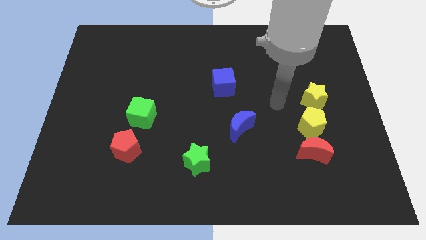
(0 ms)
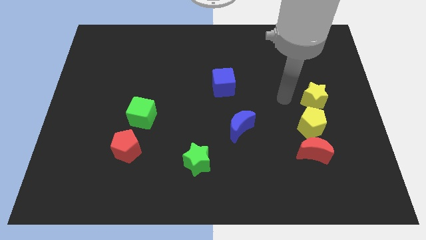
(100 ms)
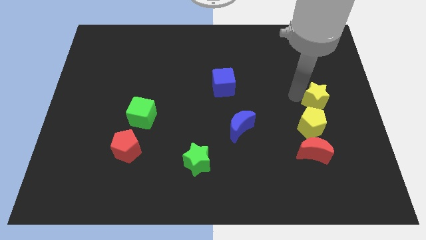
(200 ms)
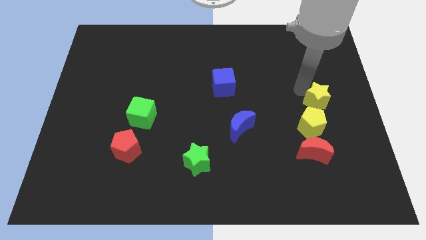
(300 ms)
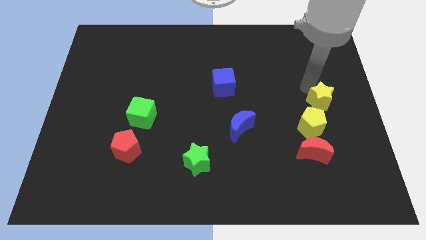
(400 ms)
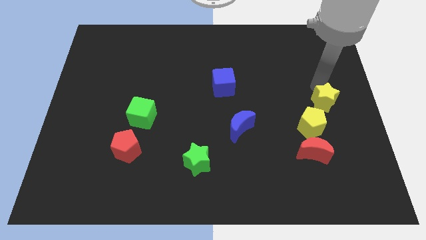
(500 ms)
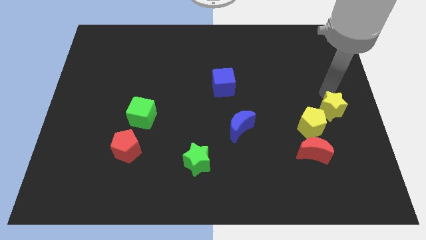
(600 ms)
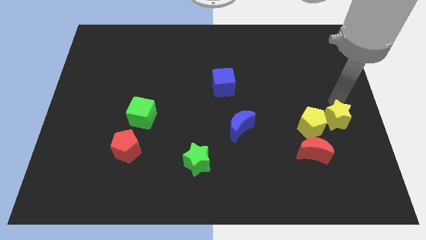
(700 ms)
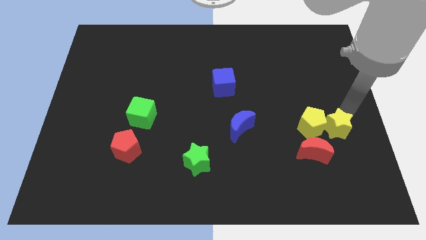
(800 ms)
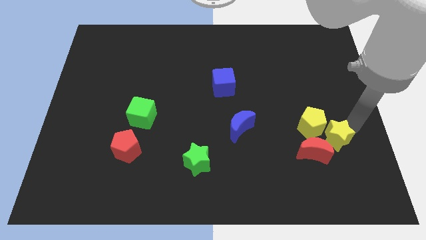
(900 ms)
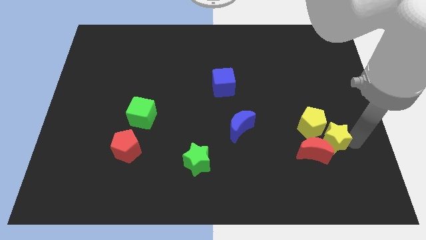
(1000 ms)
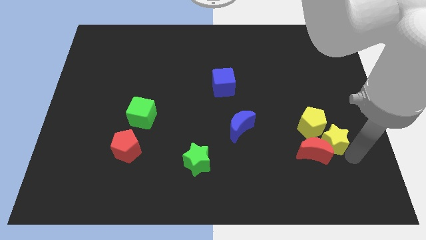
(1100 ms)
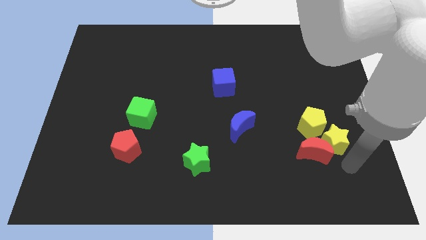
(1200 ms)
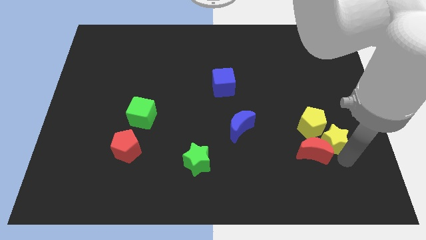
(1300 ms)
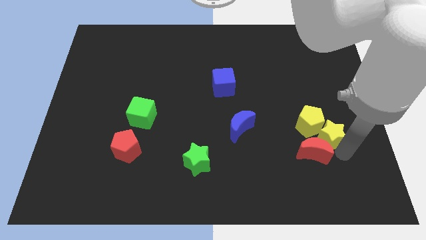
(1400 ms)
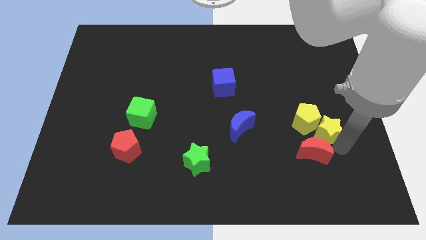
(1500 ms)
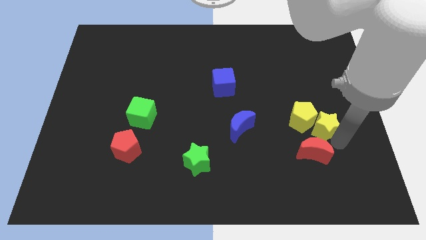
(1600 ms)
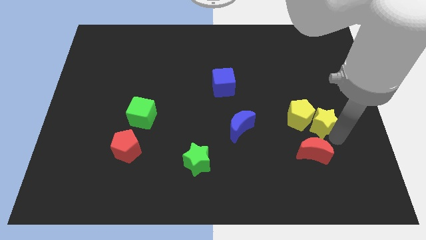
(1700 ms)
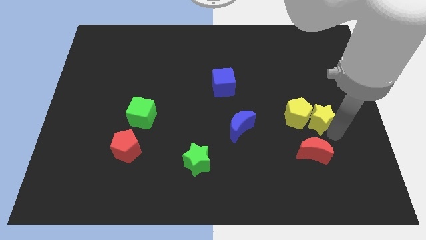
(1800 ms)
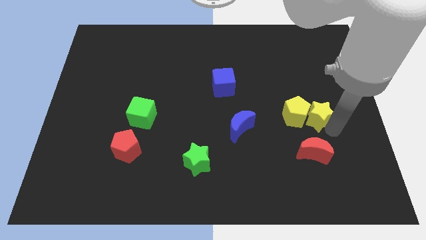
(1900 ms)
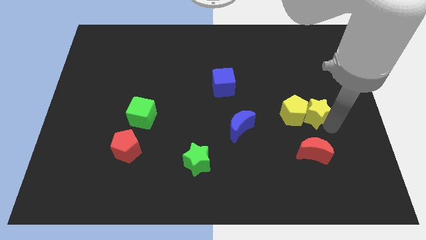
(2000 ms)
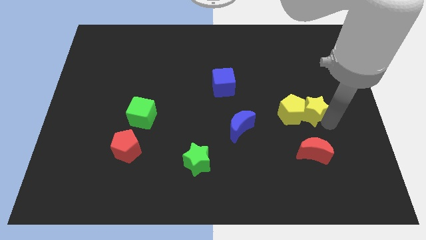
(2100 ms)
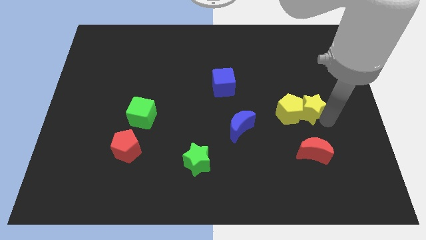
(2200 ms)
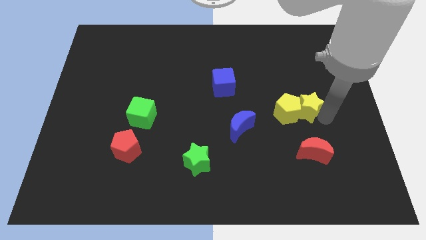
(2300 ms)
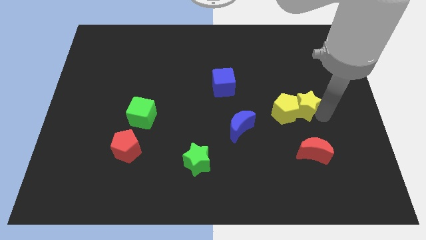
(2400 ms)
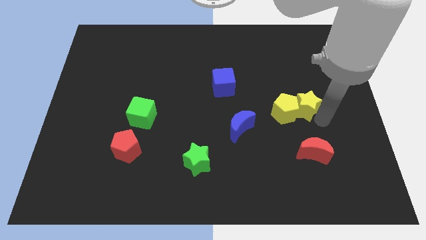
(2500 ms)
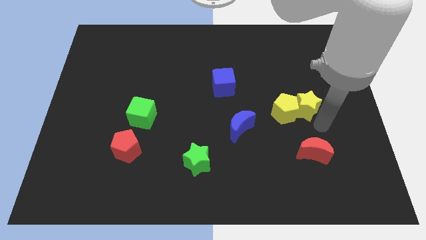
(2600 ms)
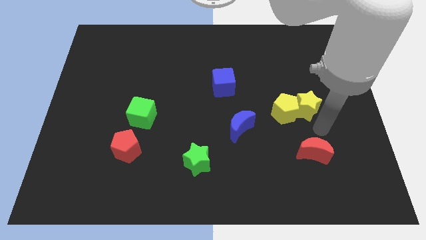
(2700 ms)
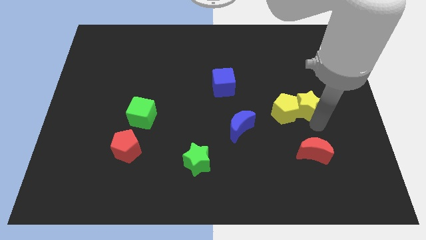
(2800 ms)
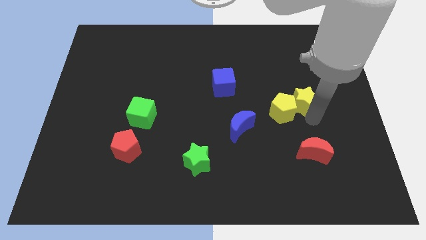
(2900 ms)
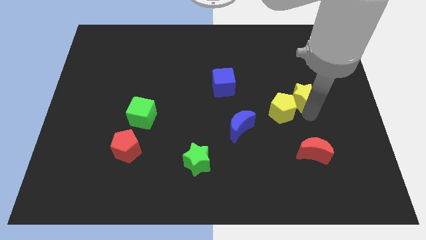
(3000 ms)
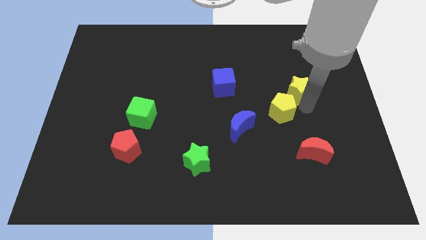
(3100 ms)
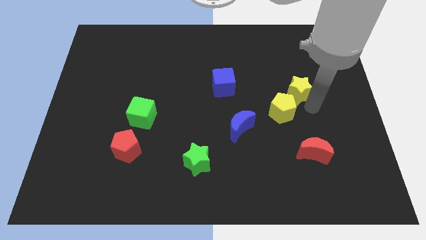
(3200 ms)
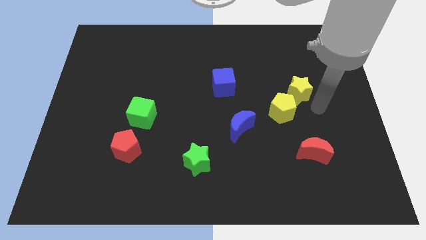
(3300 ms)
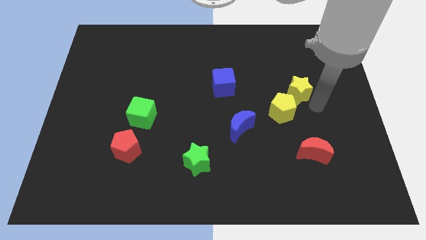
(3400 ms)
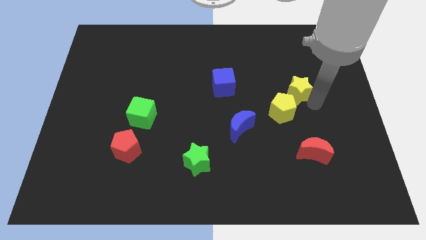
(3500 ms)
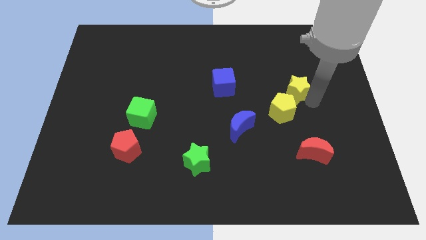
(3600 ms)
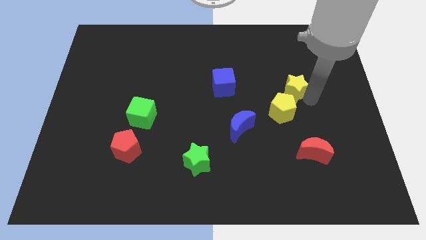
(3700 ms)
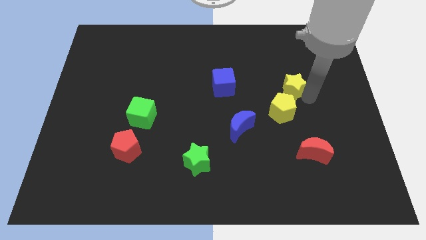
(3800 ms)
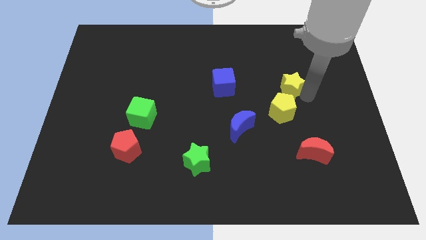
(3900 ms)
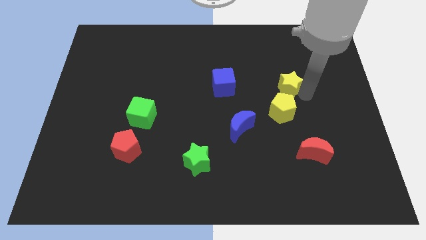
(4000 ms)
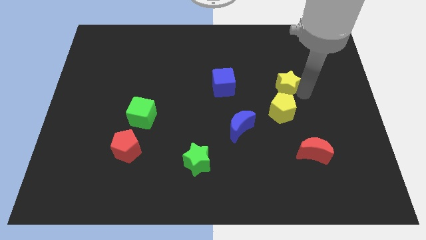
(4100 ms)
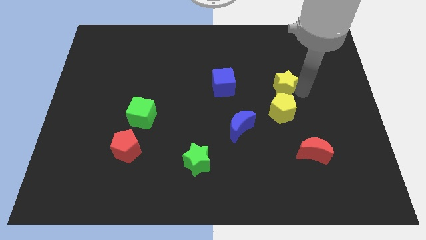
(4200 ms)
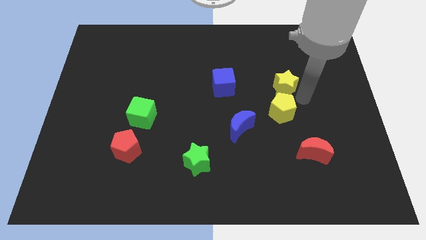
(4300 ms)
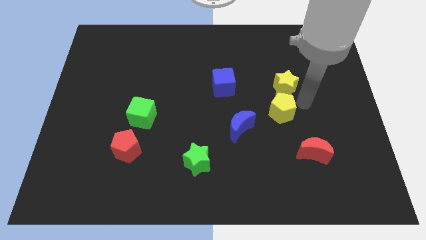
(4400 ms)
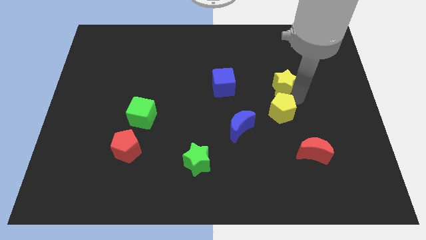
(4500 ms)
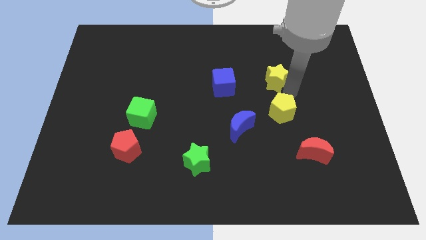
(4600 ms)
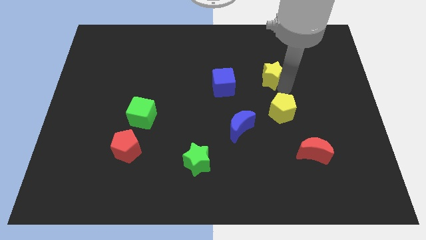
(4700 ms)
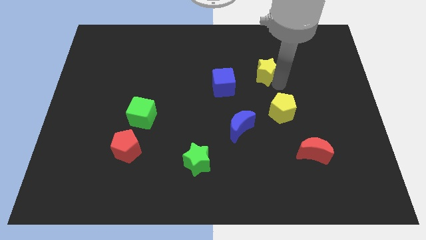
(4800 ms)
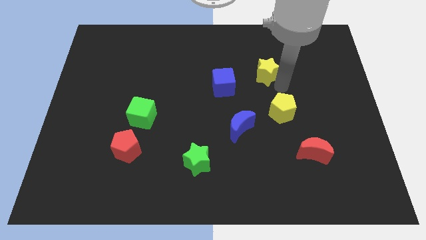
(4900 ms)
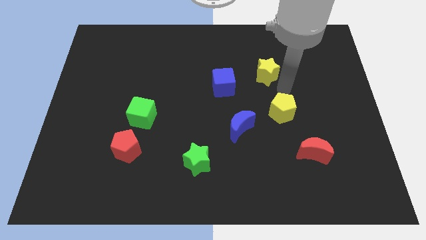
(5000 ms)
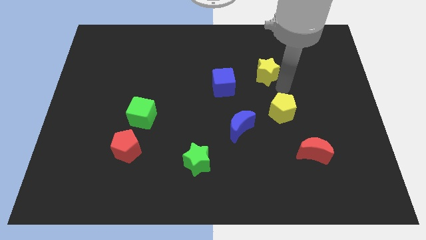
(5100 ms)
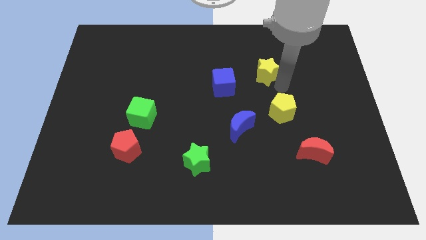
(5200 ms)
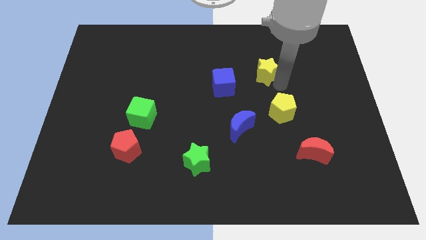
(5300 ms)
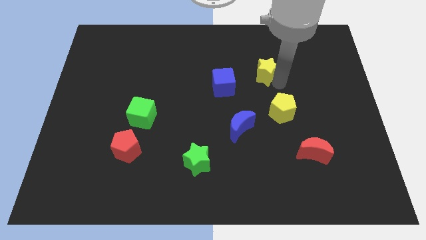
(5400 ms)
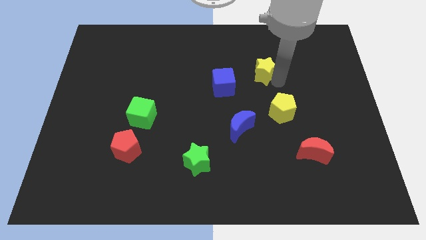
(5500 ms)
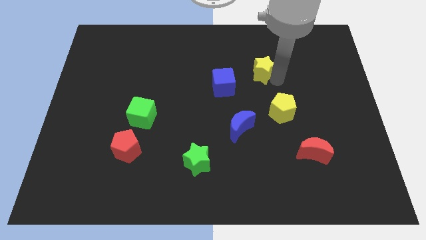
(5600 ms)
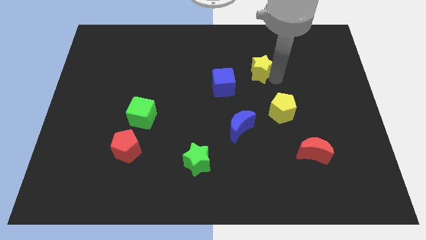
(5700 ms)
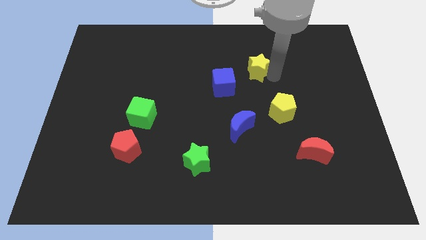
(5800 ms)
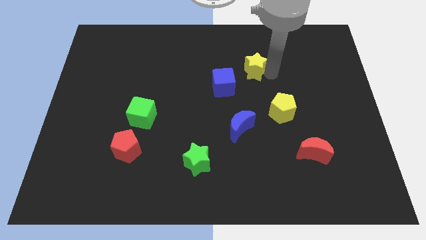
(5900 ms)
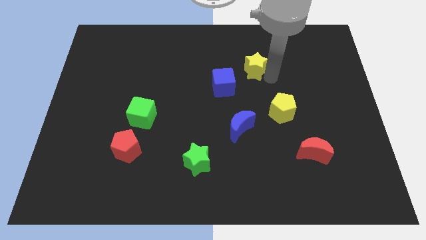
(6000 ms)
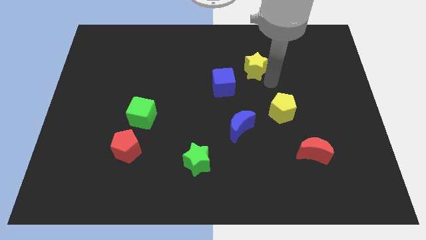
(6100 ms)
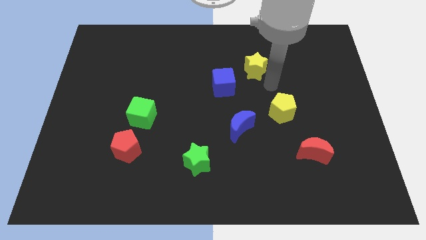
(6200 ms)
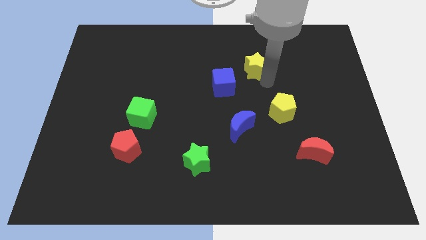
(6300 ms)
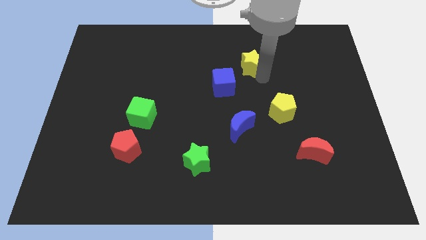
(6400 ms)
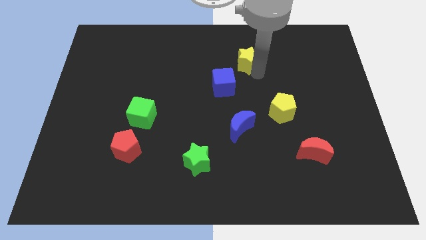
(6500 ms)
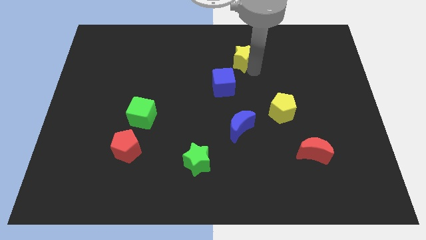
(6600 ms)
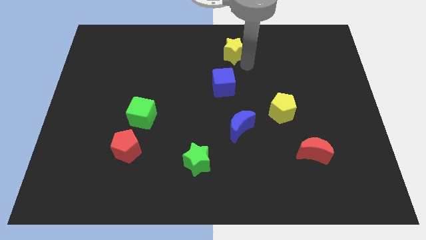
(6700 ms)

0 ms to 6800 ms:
push the yellow star to the towards your base

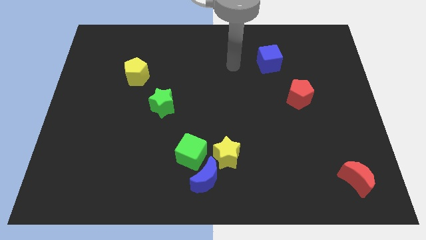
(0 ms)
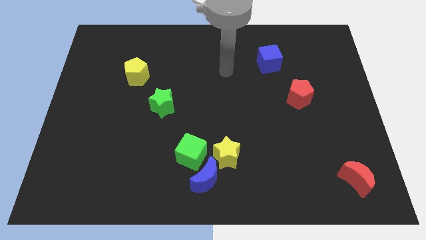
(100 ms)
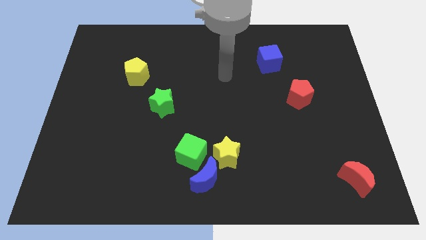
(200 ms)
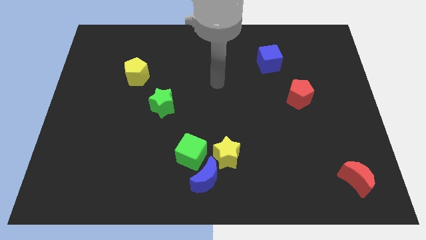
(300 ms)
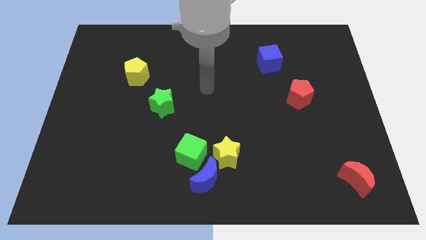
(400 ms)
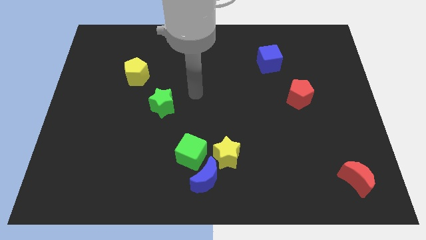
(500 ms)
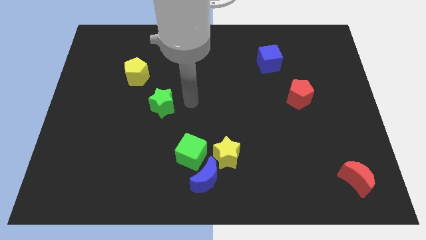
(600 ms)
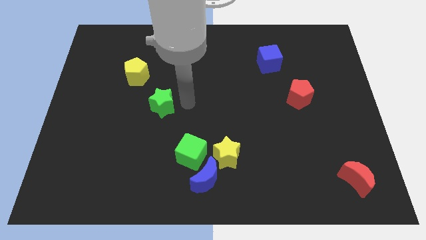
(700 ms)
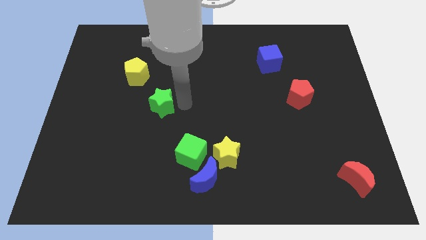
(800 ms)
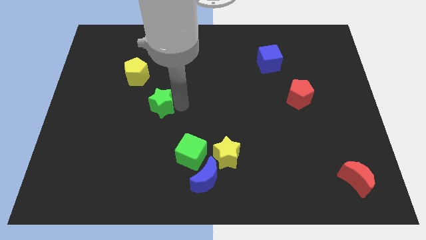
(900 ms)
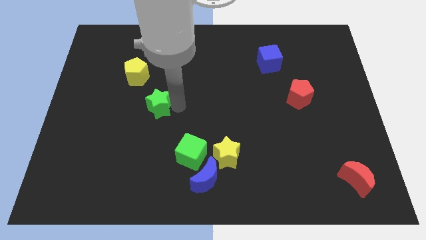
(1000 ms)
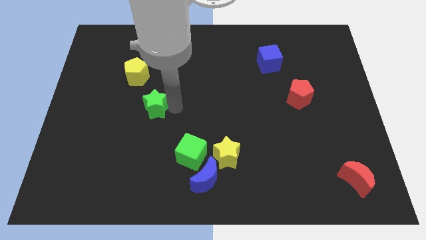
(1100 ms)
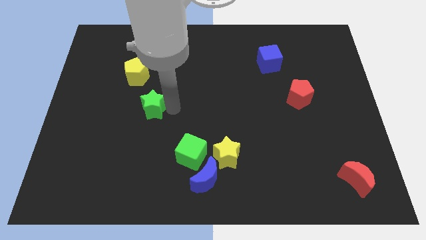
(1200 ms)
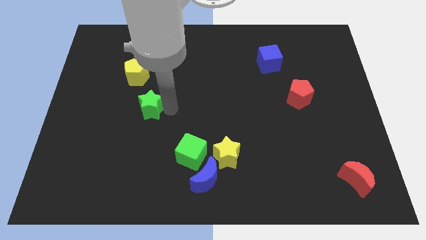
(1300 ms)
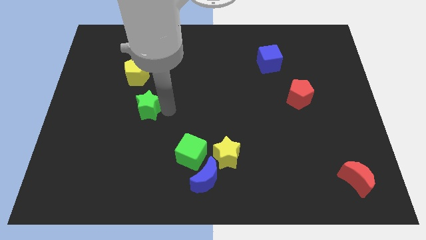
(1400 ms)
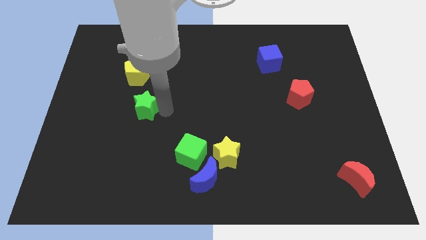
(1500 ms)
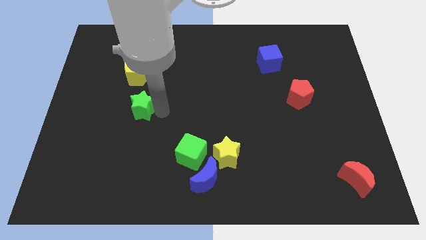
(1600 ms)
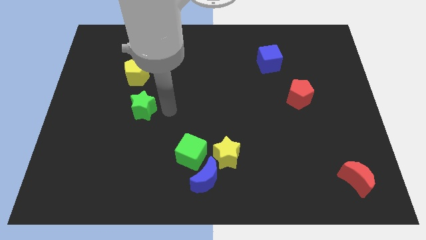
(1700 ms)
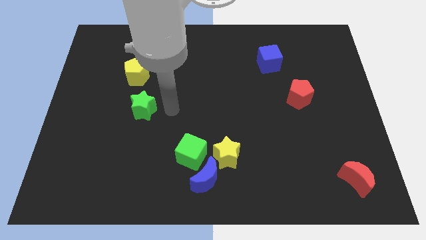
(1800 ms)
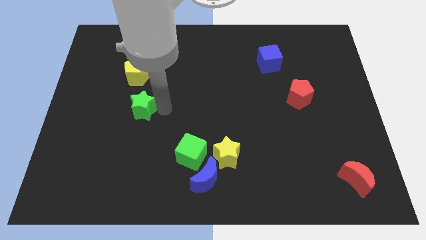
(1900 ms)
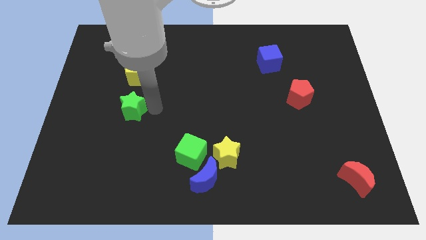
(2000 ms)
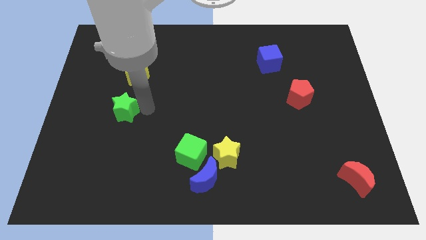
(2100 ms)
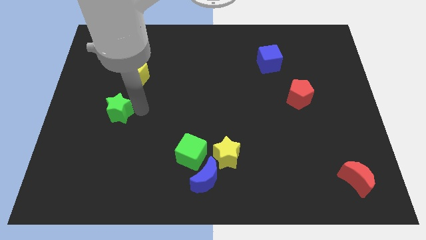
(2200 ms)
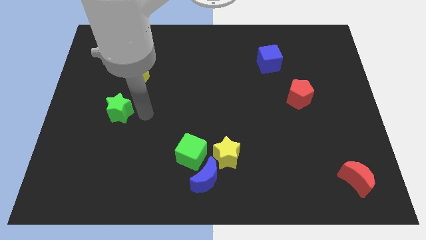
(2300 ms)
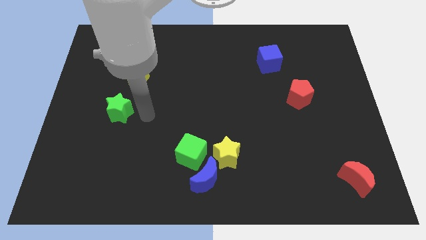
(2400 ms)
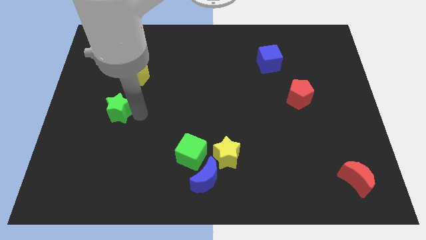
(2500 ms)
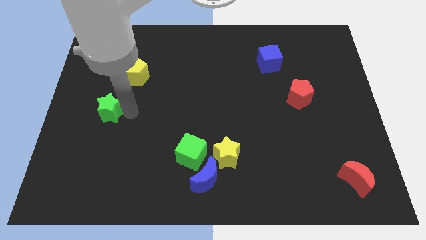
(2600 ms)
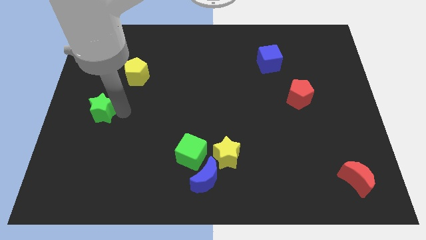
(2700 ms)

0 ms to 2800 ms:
move the green star to the left side
